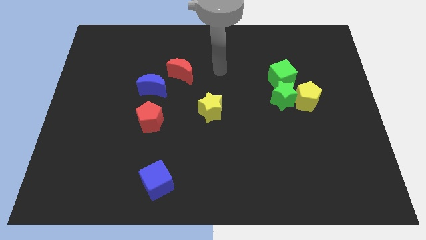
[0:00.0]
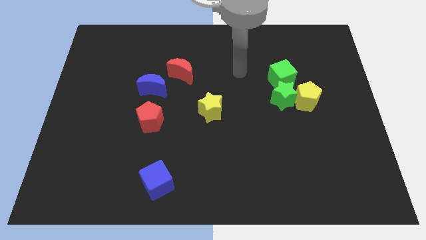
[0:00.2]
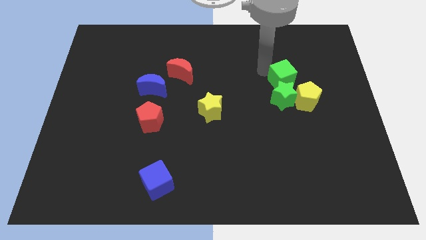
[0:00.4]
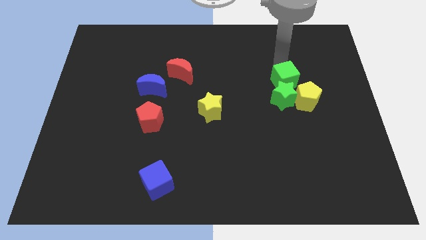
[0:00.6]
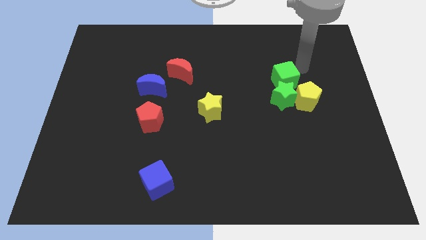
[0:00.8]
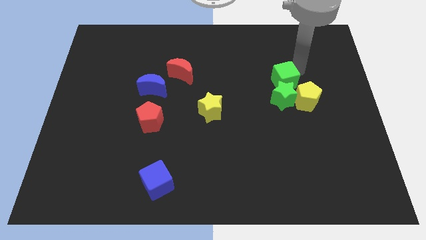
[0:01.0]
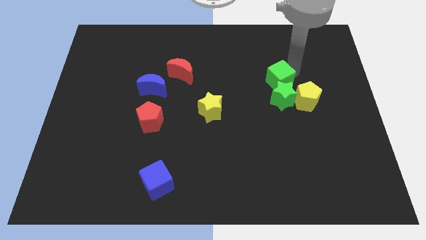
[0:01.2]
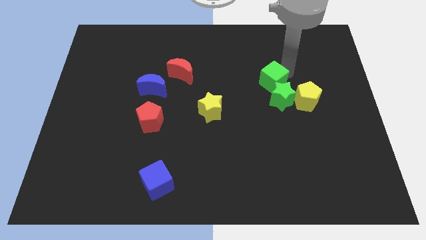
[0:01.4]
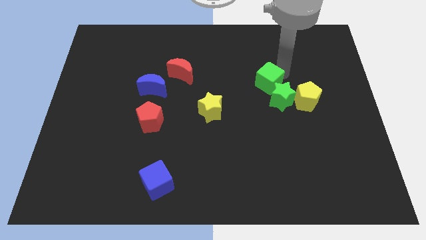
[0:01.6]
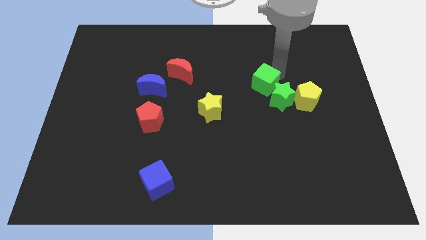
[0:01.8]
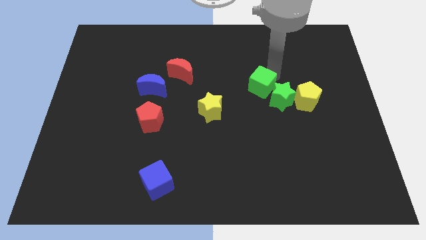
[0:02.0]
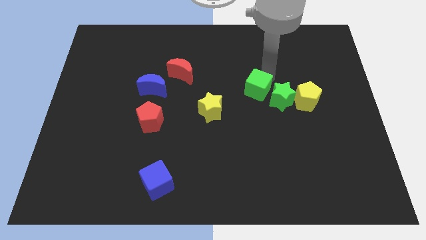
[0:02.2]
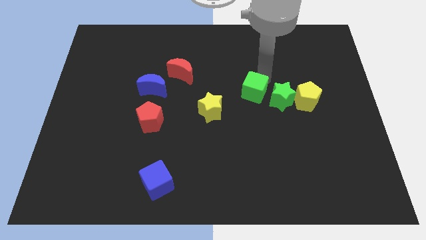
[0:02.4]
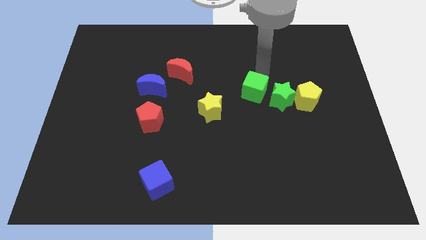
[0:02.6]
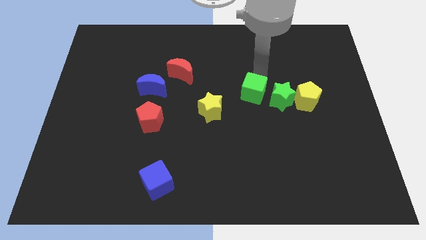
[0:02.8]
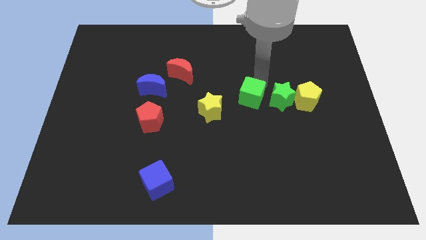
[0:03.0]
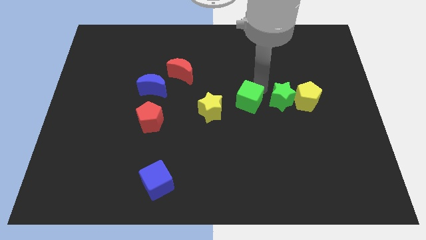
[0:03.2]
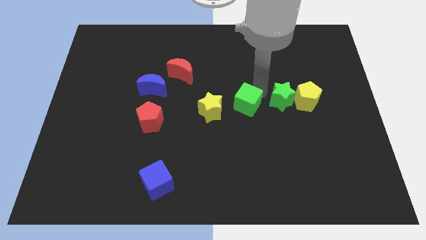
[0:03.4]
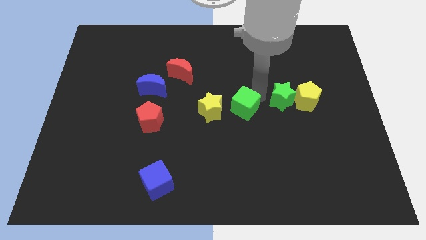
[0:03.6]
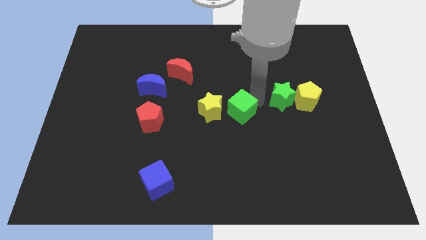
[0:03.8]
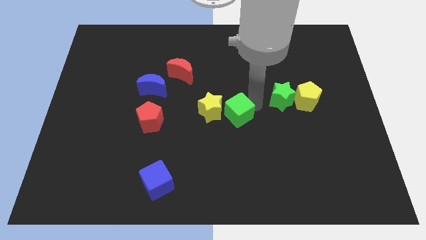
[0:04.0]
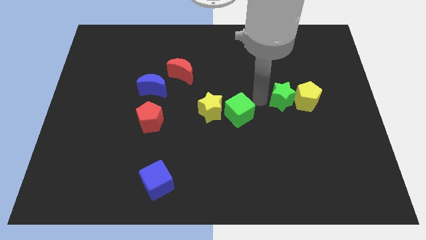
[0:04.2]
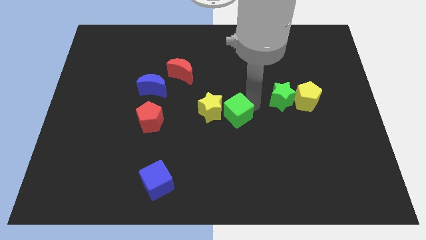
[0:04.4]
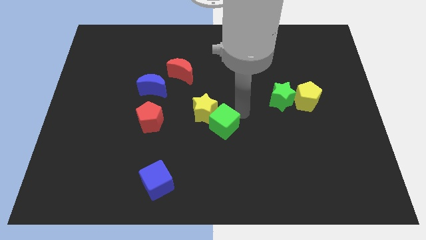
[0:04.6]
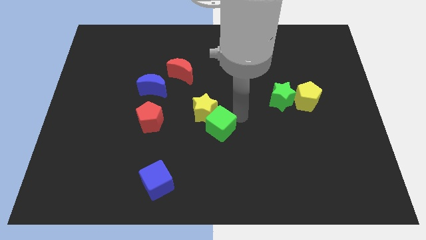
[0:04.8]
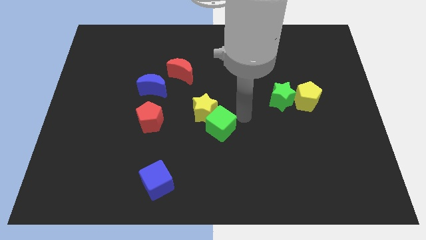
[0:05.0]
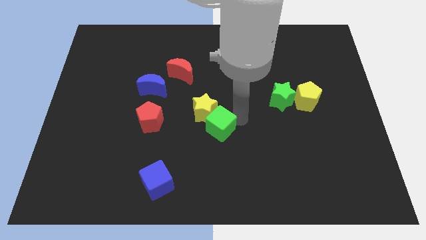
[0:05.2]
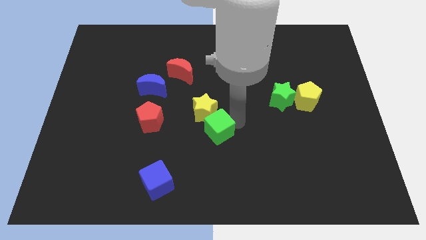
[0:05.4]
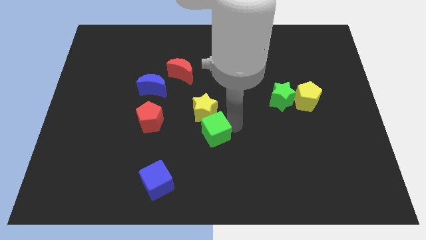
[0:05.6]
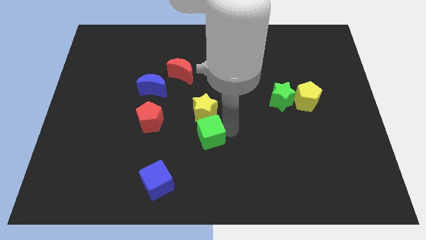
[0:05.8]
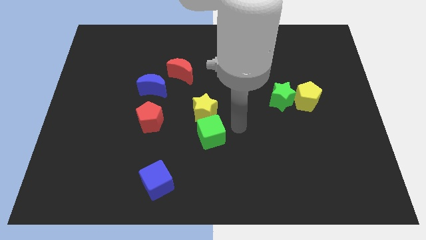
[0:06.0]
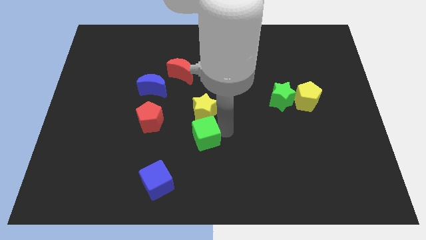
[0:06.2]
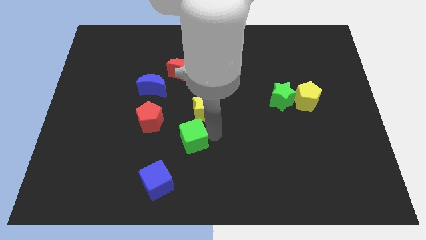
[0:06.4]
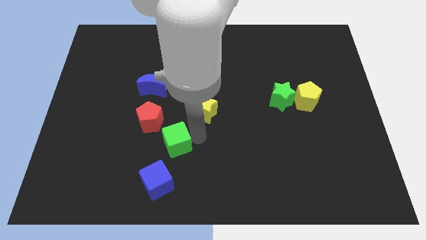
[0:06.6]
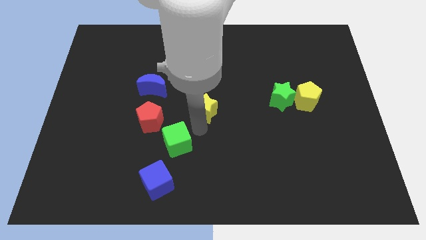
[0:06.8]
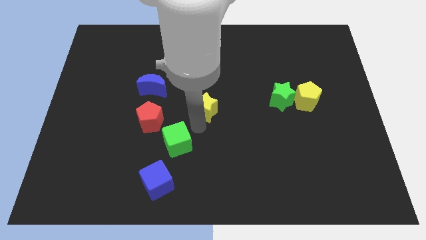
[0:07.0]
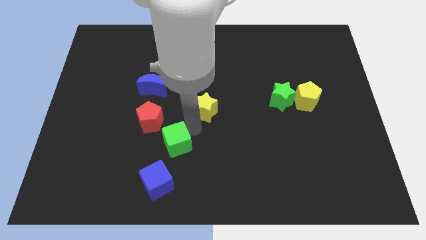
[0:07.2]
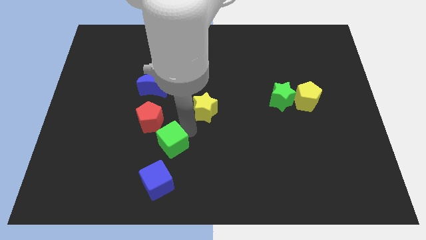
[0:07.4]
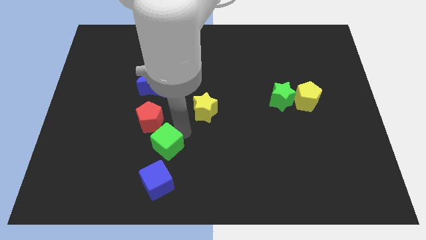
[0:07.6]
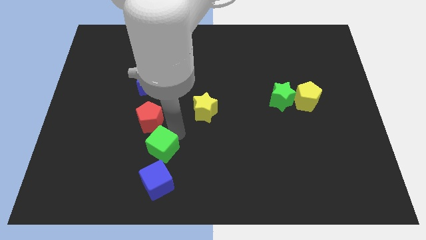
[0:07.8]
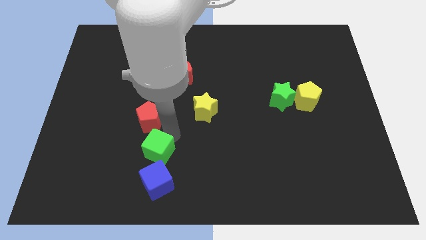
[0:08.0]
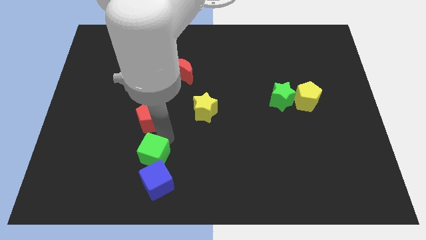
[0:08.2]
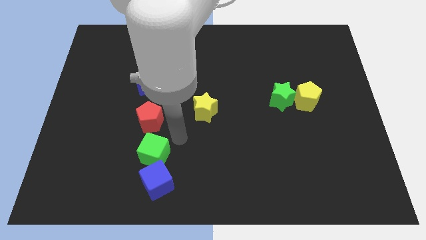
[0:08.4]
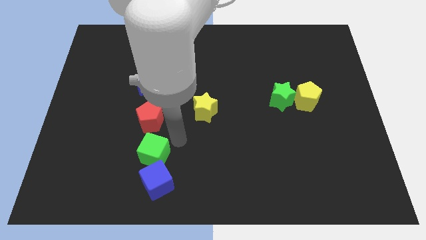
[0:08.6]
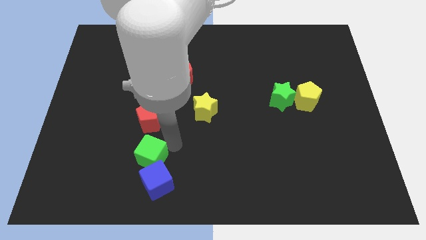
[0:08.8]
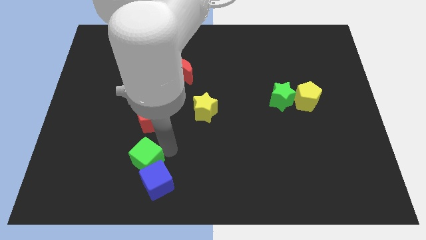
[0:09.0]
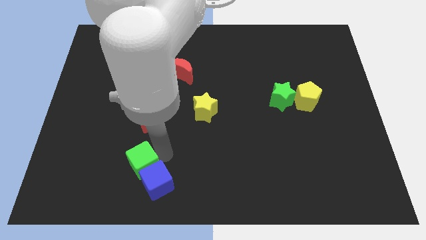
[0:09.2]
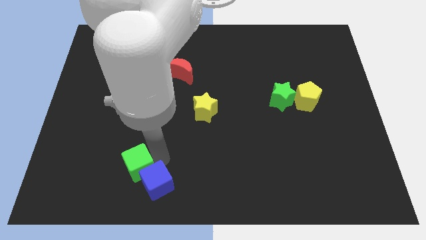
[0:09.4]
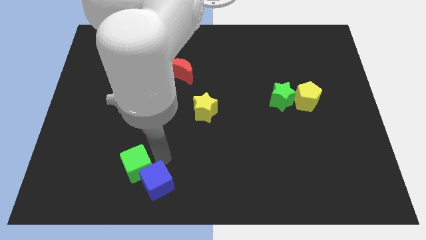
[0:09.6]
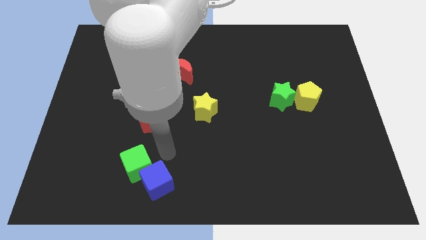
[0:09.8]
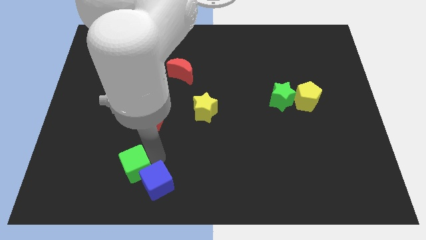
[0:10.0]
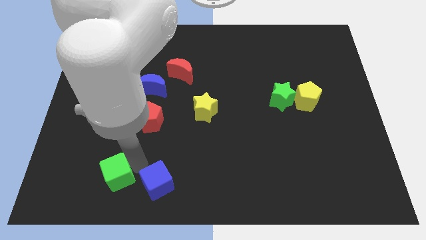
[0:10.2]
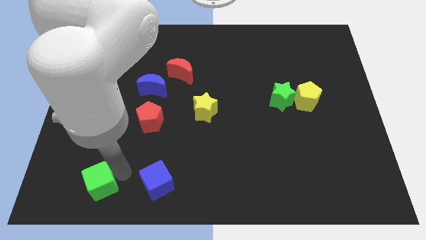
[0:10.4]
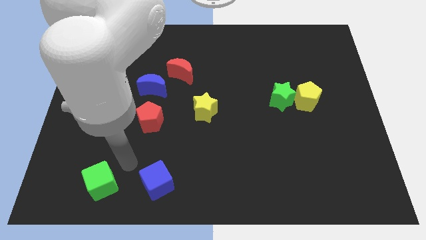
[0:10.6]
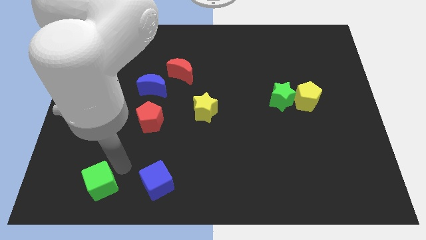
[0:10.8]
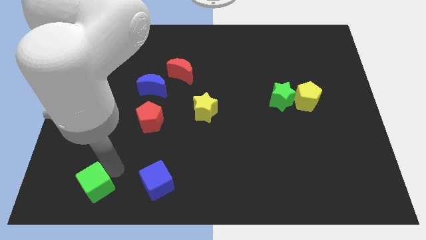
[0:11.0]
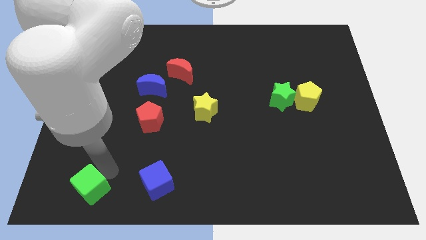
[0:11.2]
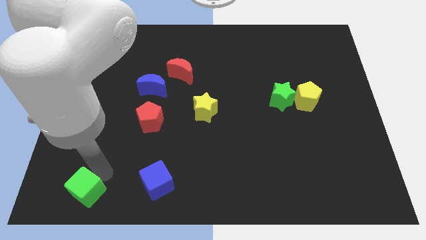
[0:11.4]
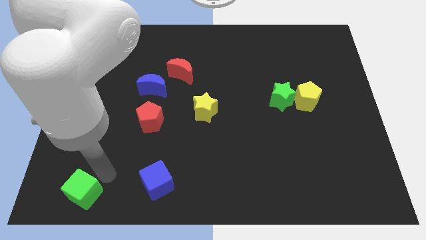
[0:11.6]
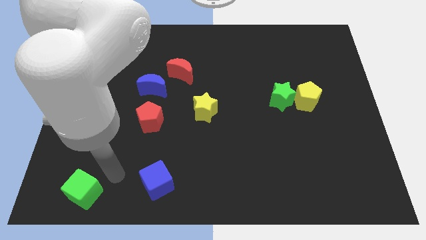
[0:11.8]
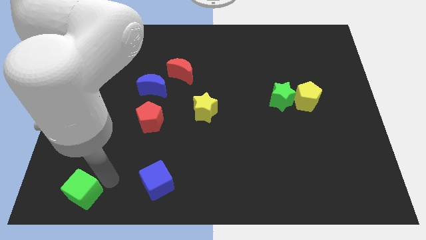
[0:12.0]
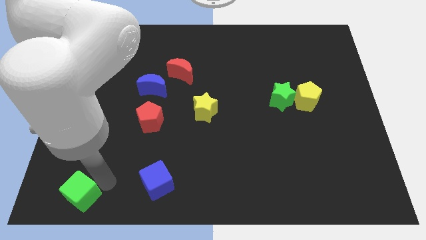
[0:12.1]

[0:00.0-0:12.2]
slide the green cube to the lower left corner
